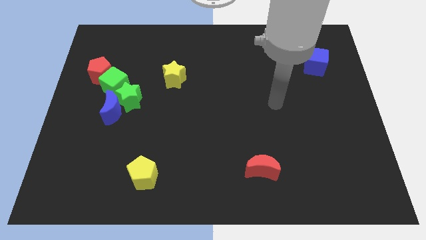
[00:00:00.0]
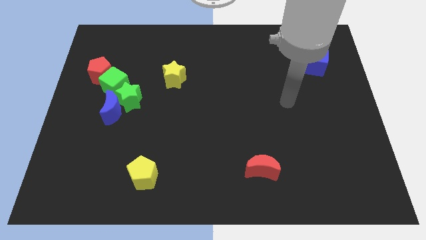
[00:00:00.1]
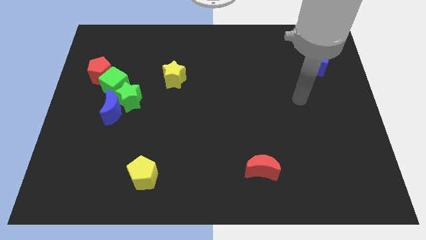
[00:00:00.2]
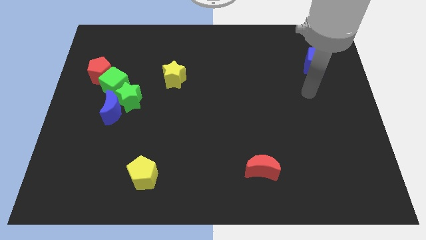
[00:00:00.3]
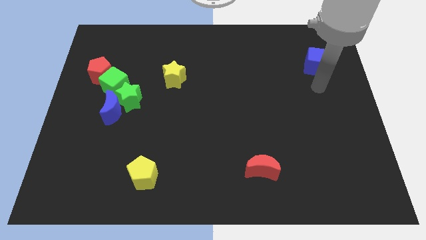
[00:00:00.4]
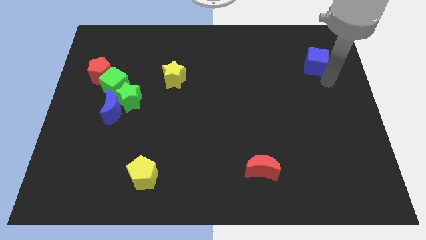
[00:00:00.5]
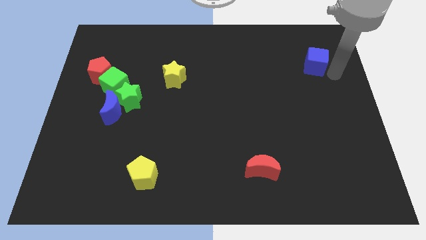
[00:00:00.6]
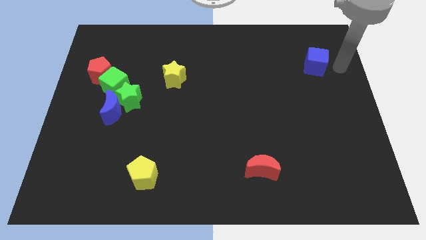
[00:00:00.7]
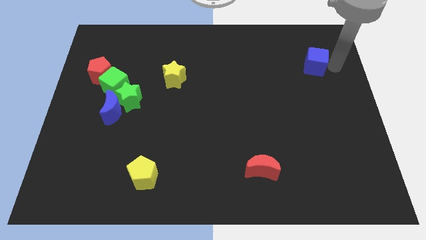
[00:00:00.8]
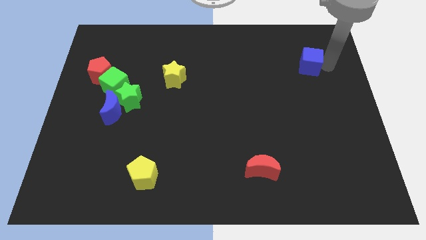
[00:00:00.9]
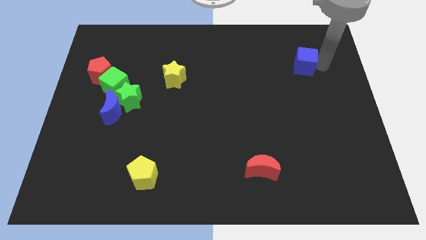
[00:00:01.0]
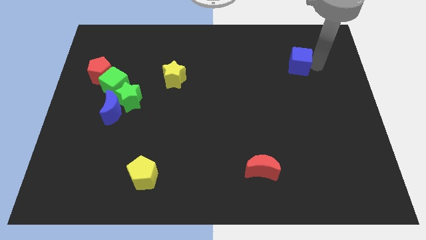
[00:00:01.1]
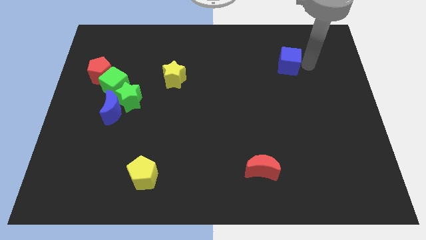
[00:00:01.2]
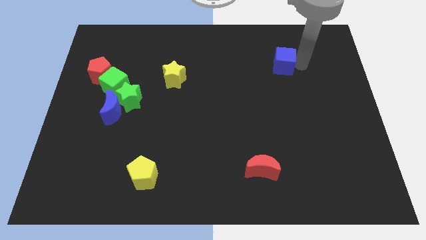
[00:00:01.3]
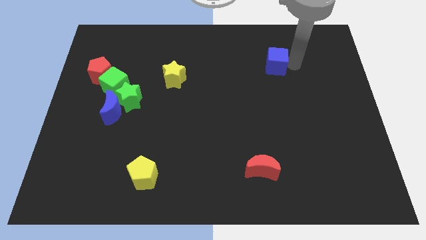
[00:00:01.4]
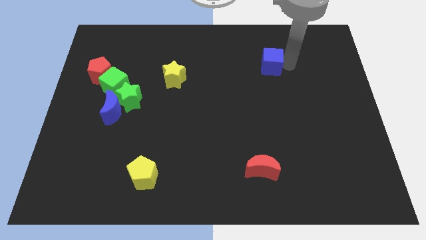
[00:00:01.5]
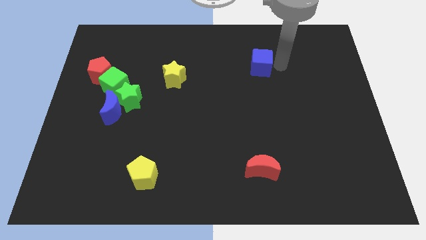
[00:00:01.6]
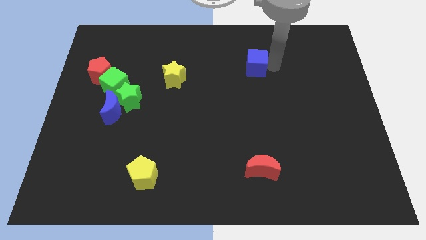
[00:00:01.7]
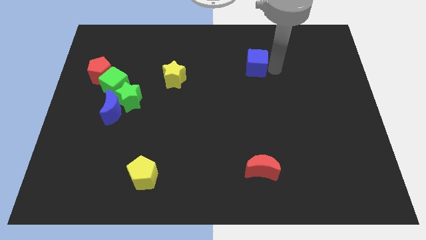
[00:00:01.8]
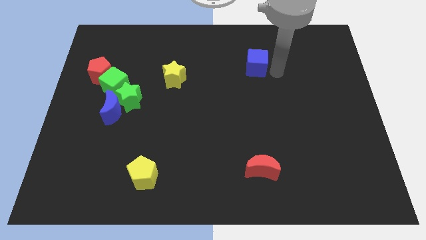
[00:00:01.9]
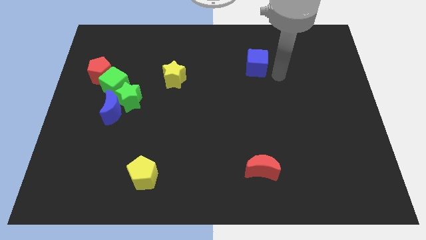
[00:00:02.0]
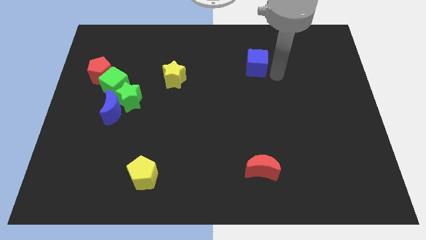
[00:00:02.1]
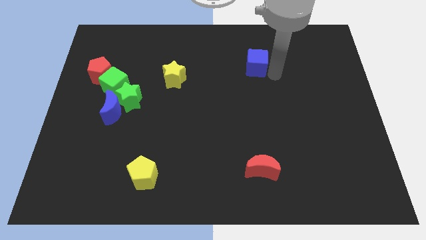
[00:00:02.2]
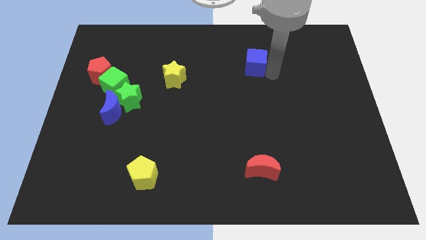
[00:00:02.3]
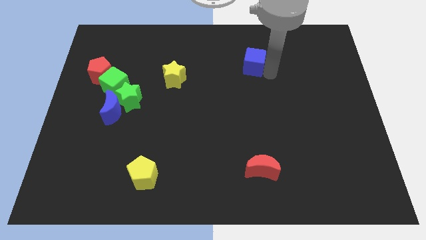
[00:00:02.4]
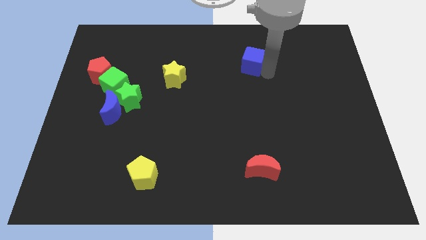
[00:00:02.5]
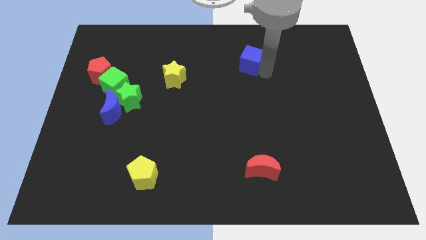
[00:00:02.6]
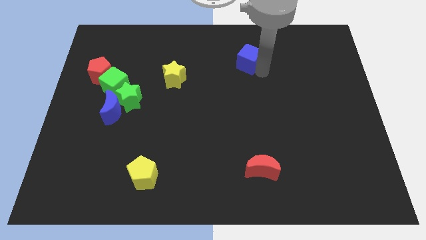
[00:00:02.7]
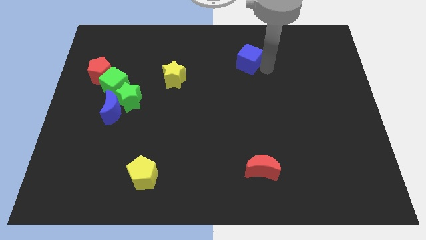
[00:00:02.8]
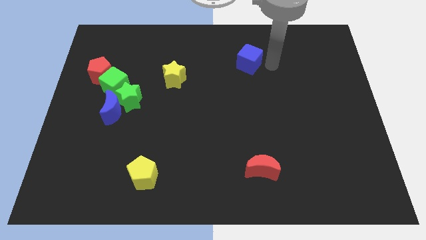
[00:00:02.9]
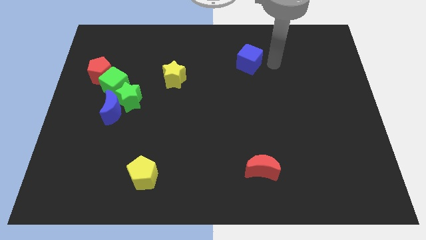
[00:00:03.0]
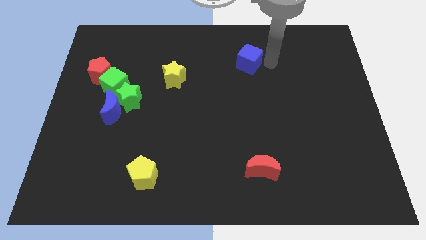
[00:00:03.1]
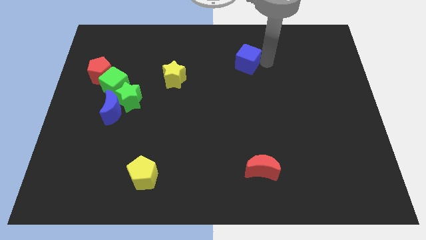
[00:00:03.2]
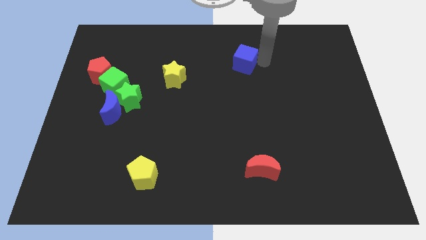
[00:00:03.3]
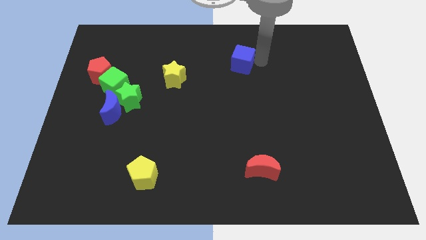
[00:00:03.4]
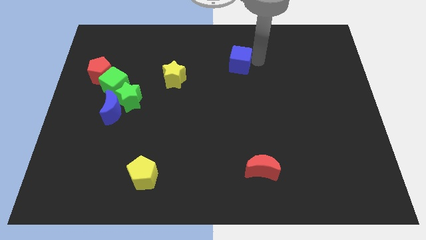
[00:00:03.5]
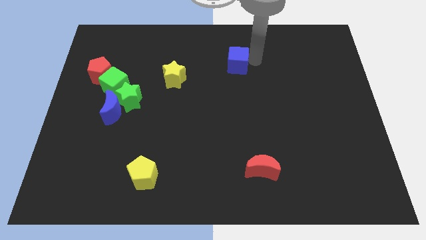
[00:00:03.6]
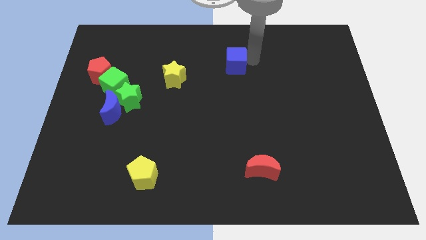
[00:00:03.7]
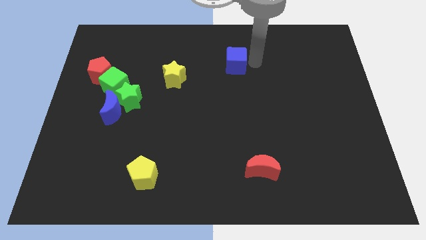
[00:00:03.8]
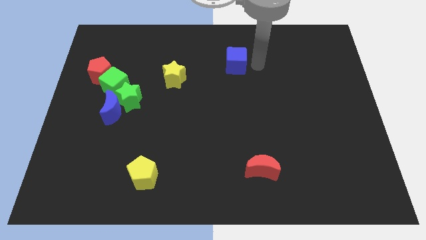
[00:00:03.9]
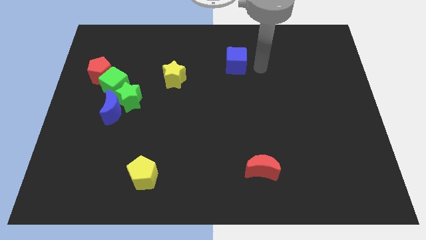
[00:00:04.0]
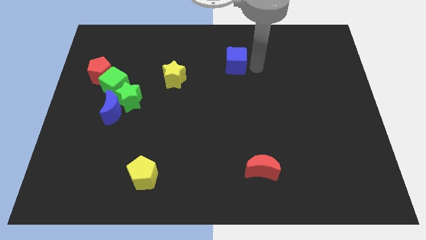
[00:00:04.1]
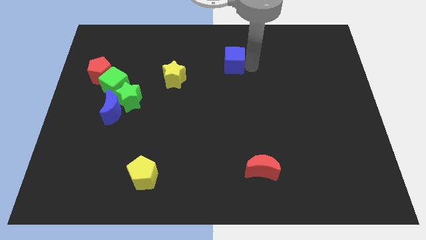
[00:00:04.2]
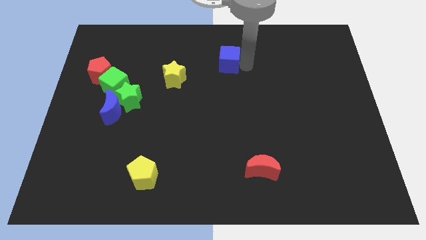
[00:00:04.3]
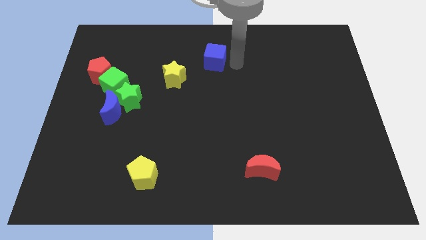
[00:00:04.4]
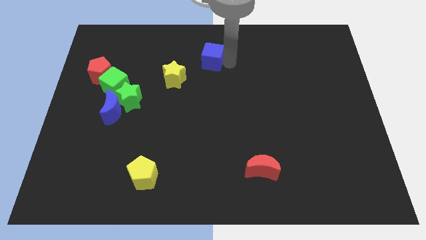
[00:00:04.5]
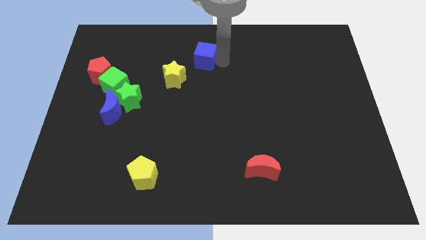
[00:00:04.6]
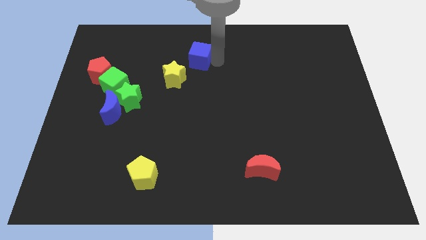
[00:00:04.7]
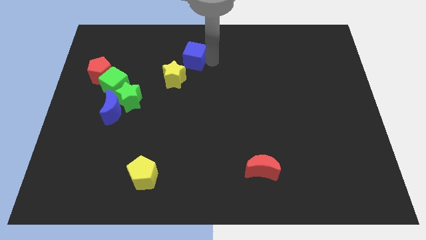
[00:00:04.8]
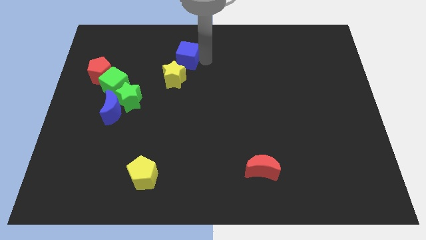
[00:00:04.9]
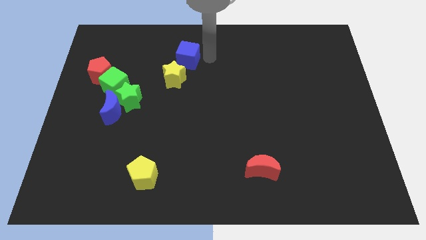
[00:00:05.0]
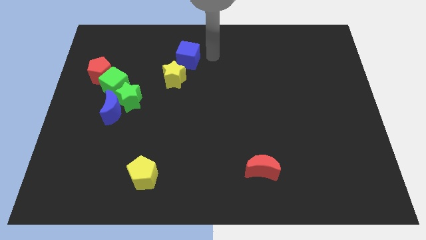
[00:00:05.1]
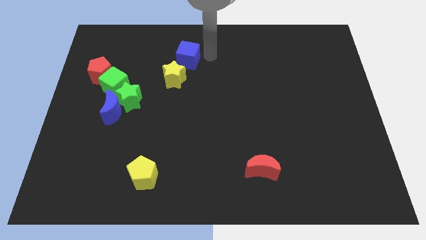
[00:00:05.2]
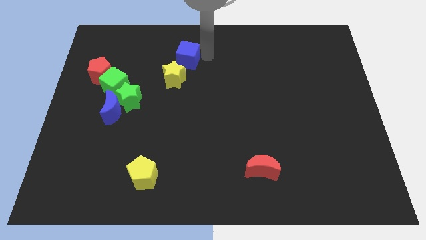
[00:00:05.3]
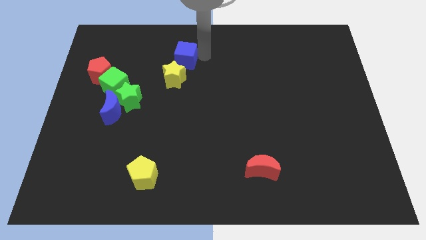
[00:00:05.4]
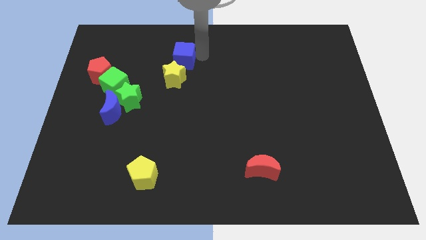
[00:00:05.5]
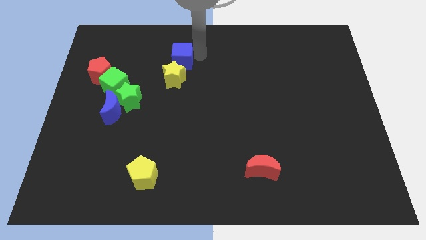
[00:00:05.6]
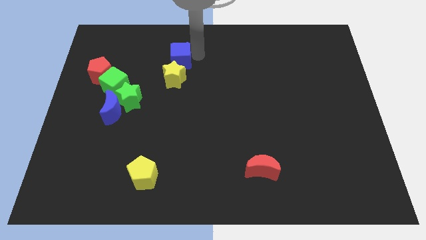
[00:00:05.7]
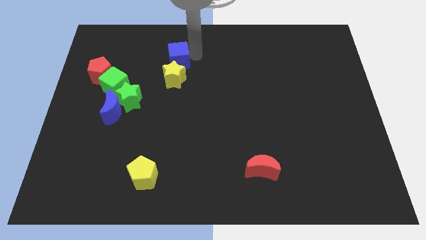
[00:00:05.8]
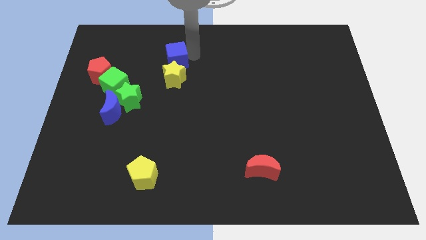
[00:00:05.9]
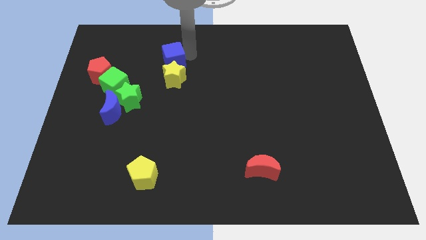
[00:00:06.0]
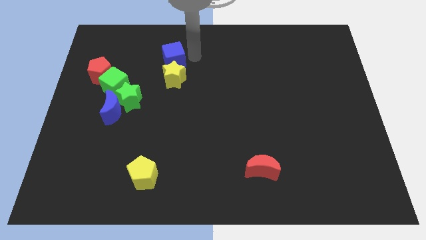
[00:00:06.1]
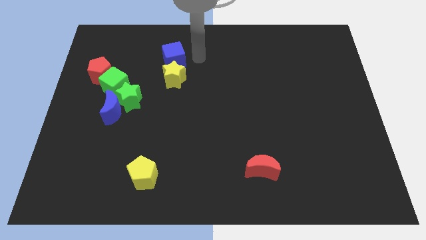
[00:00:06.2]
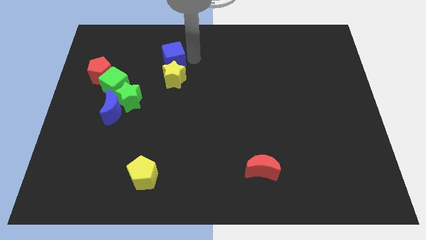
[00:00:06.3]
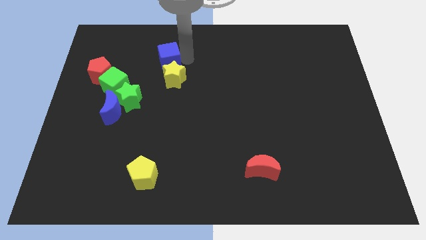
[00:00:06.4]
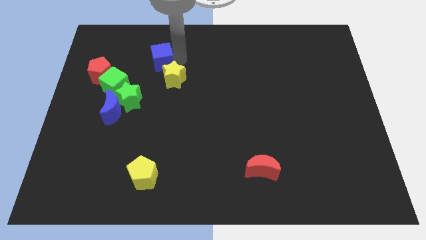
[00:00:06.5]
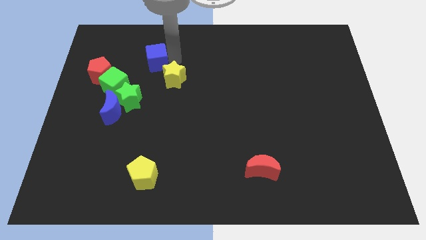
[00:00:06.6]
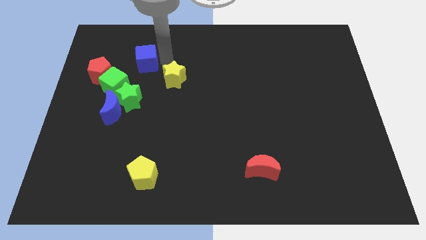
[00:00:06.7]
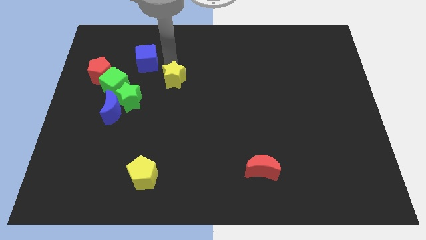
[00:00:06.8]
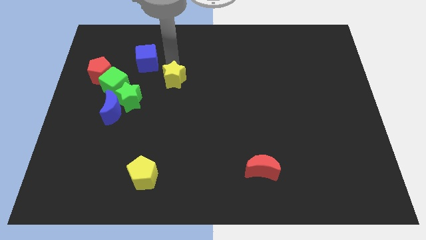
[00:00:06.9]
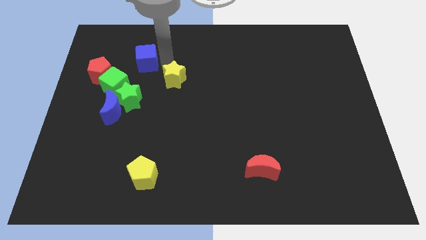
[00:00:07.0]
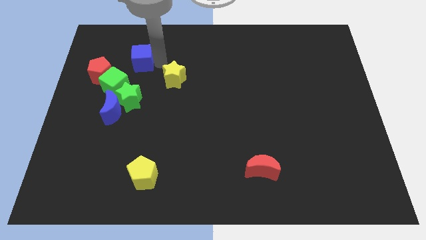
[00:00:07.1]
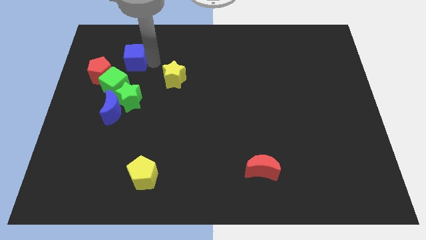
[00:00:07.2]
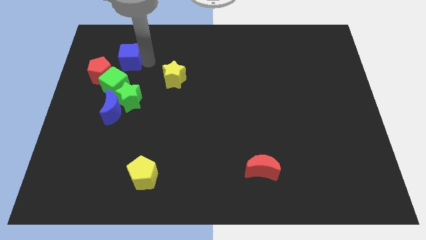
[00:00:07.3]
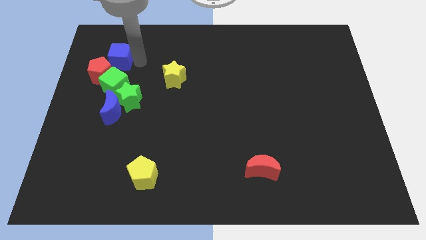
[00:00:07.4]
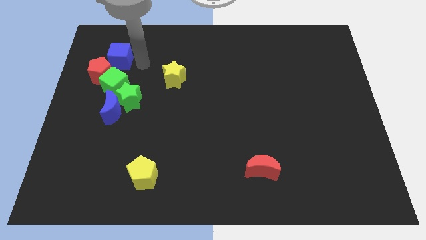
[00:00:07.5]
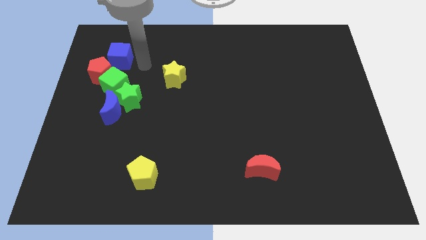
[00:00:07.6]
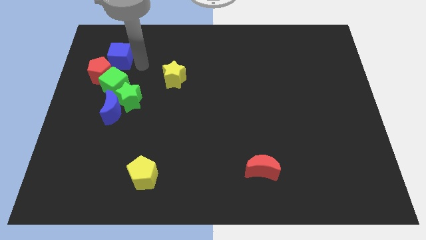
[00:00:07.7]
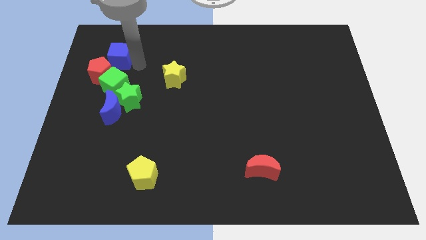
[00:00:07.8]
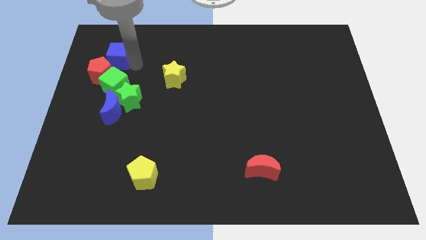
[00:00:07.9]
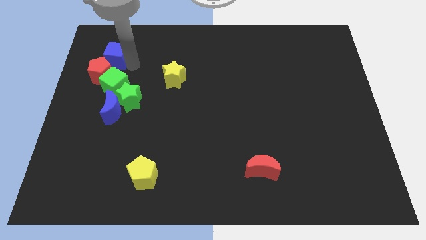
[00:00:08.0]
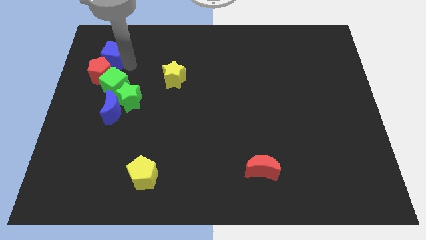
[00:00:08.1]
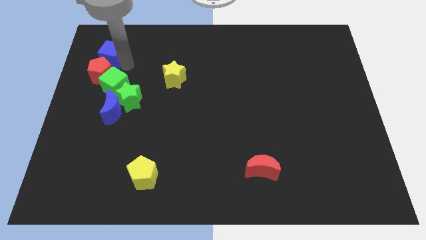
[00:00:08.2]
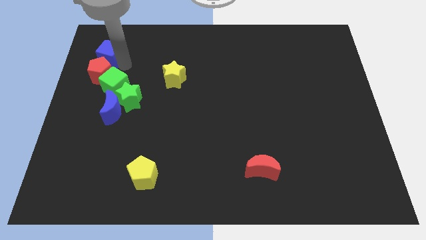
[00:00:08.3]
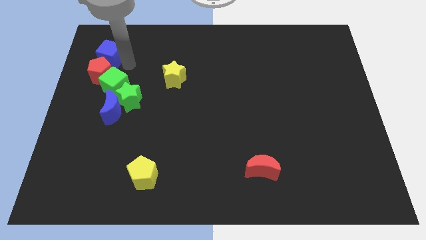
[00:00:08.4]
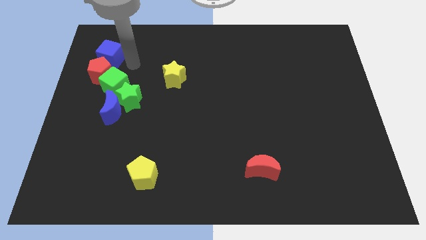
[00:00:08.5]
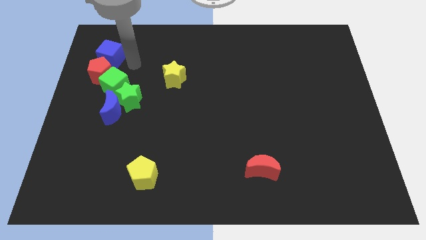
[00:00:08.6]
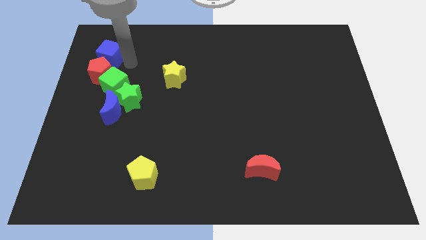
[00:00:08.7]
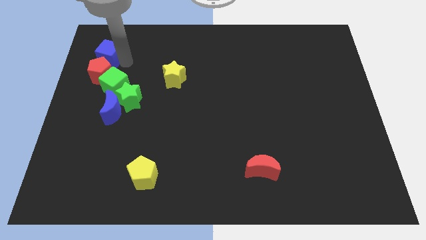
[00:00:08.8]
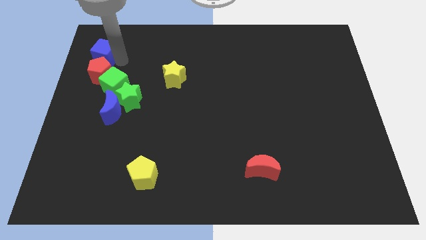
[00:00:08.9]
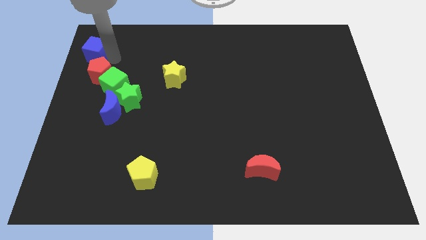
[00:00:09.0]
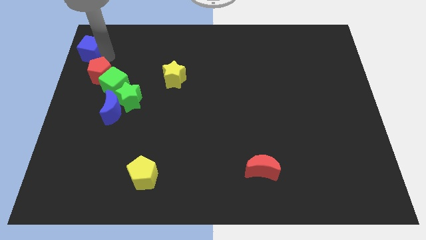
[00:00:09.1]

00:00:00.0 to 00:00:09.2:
move the blue cube to the top left
